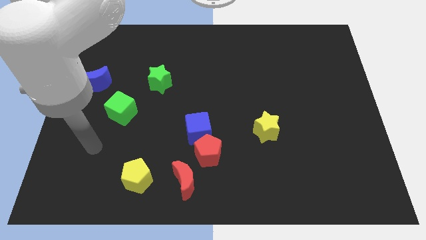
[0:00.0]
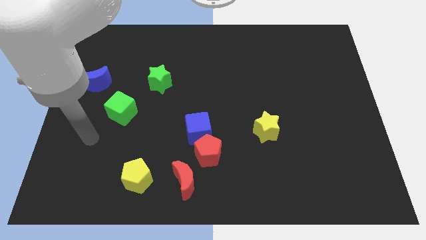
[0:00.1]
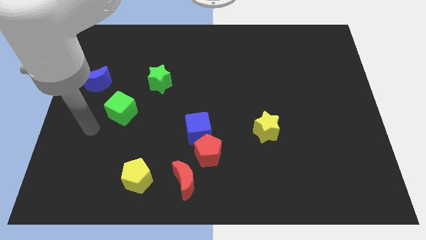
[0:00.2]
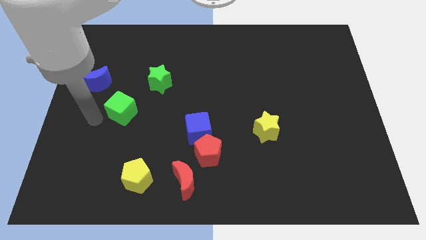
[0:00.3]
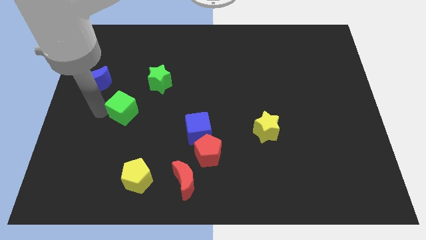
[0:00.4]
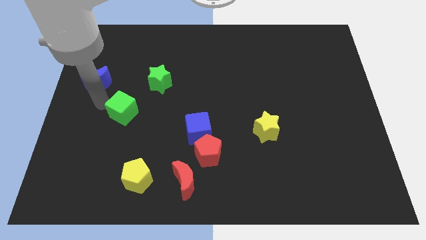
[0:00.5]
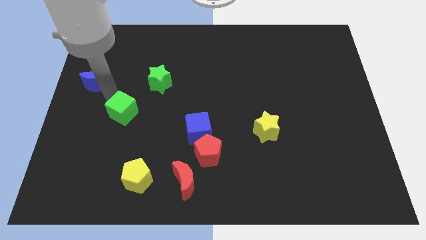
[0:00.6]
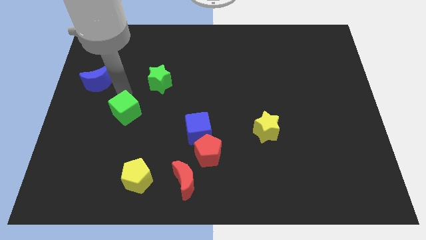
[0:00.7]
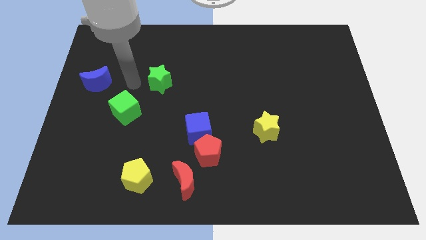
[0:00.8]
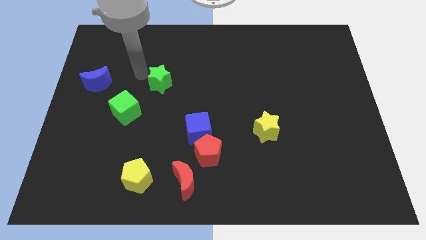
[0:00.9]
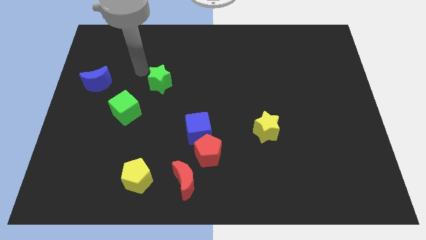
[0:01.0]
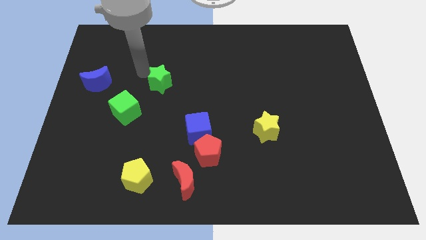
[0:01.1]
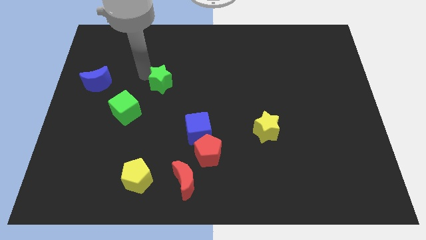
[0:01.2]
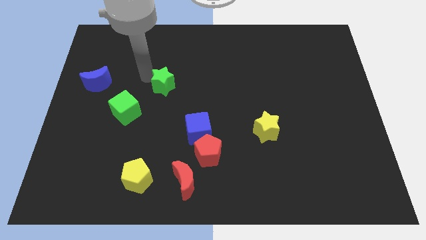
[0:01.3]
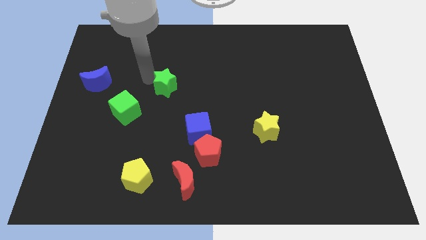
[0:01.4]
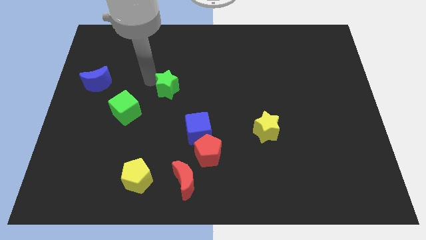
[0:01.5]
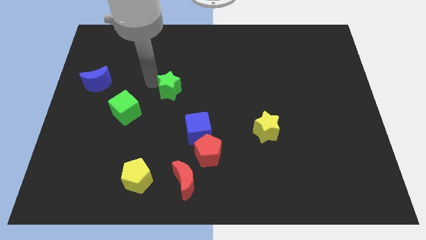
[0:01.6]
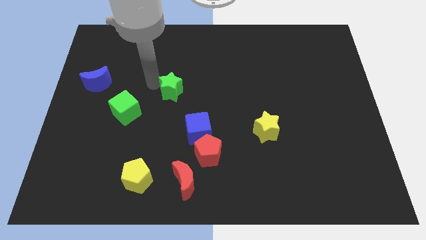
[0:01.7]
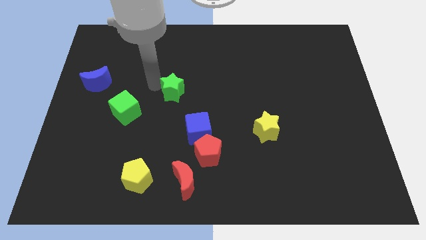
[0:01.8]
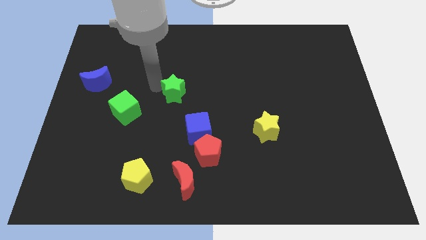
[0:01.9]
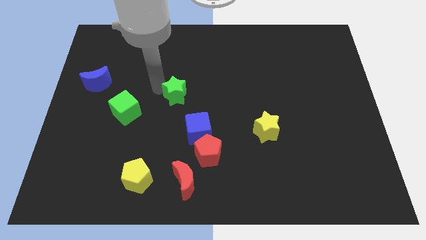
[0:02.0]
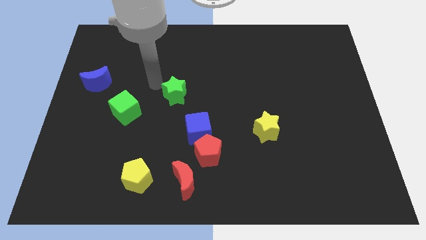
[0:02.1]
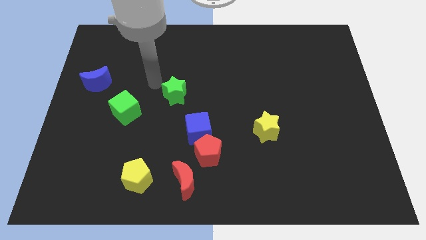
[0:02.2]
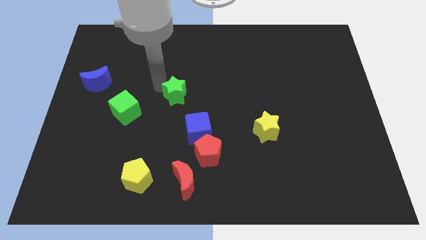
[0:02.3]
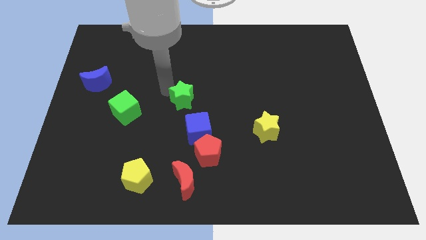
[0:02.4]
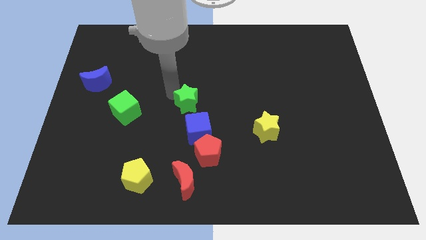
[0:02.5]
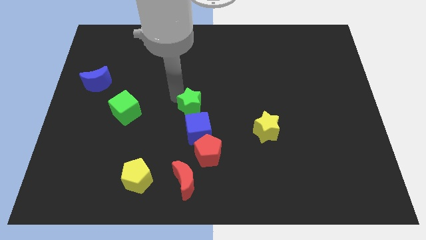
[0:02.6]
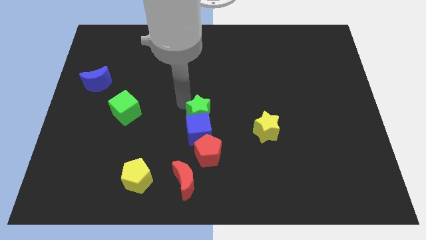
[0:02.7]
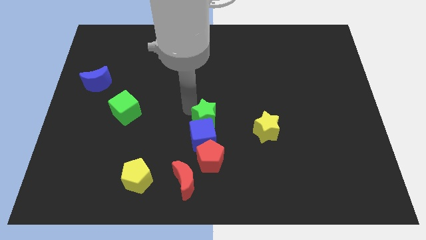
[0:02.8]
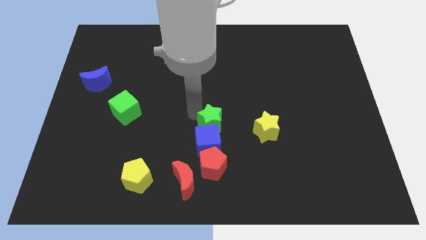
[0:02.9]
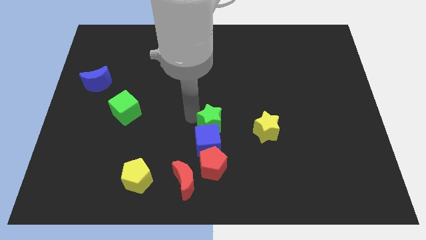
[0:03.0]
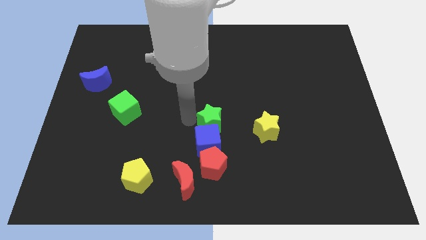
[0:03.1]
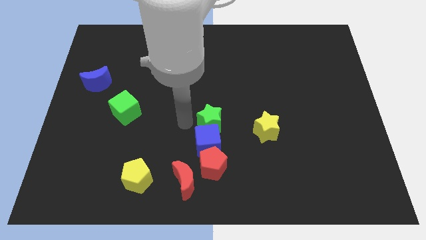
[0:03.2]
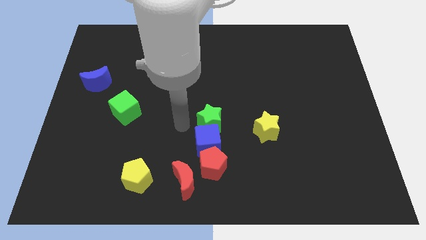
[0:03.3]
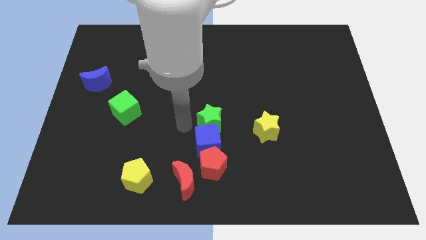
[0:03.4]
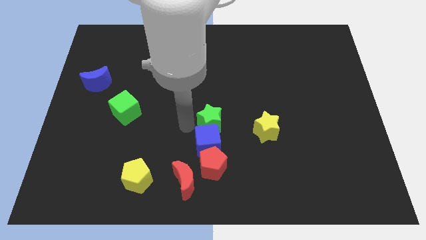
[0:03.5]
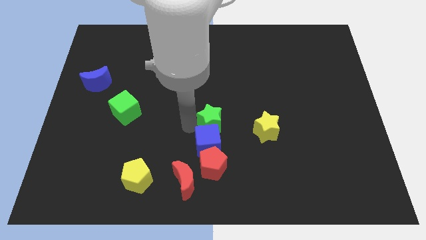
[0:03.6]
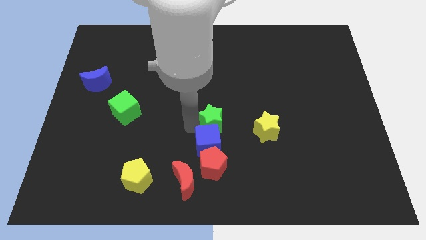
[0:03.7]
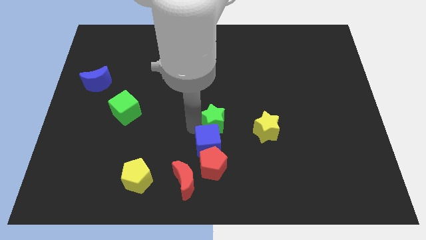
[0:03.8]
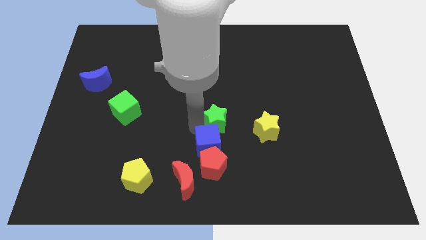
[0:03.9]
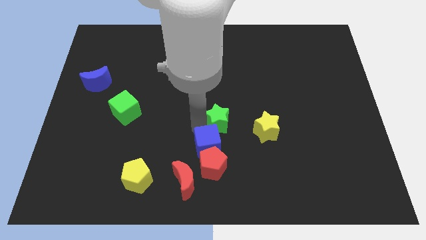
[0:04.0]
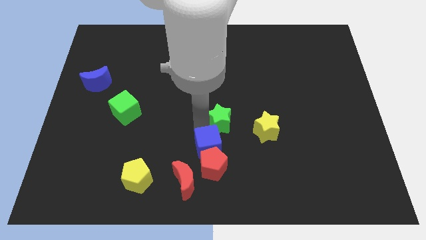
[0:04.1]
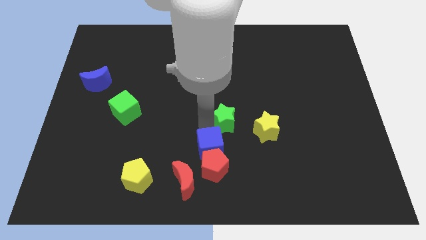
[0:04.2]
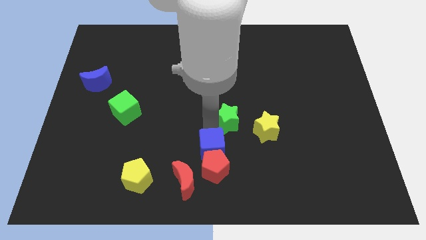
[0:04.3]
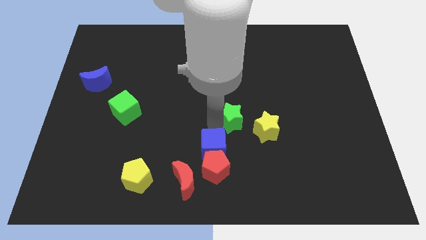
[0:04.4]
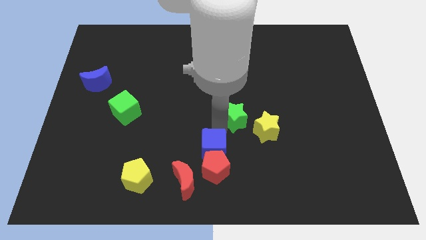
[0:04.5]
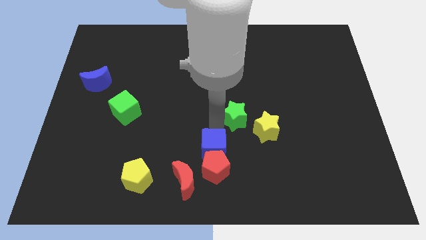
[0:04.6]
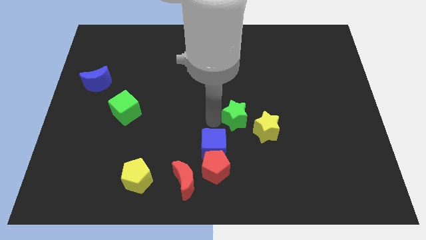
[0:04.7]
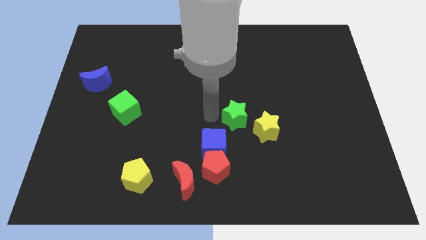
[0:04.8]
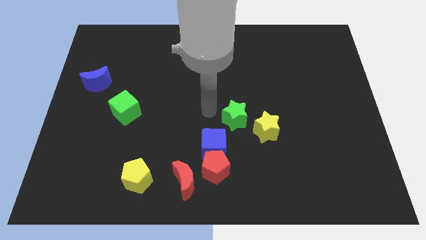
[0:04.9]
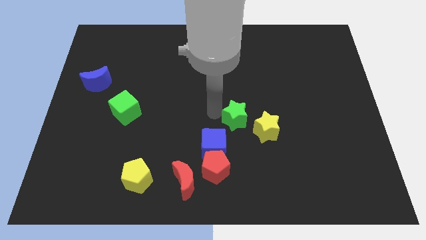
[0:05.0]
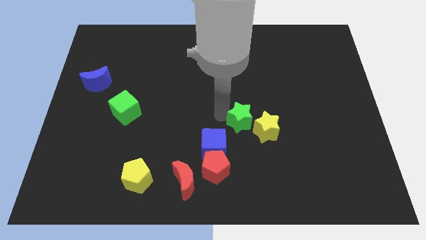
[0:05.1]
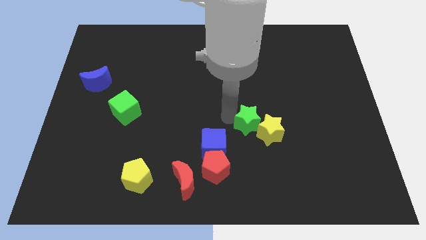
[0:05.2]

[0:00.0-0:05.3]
push the green star next to the yellow star

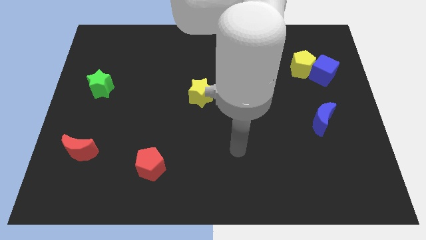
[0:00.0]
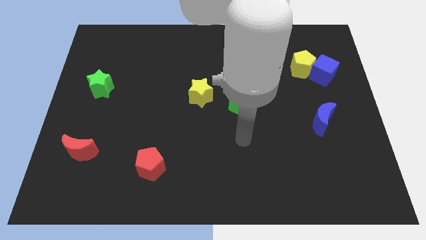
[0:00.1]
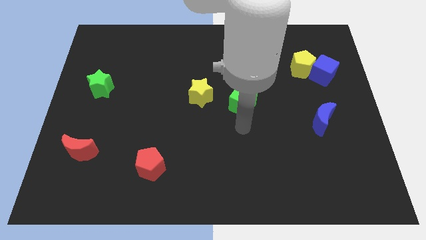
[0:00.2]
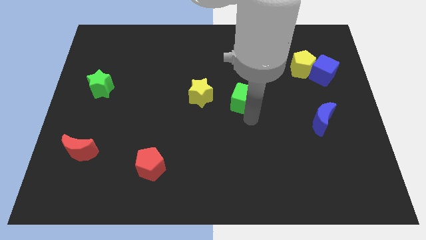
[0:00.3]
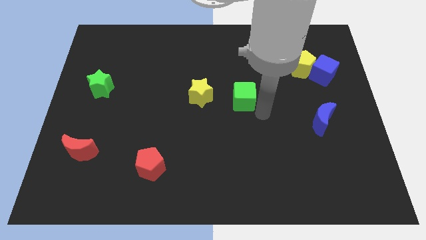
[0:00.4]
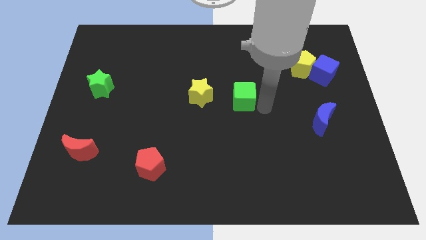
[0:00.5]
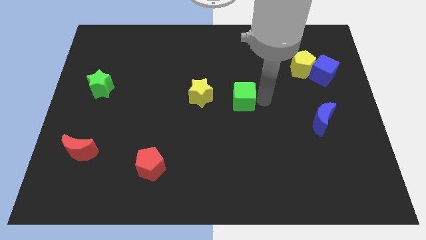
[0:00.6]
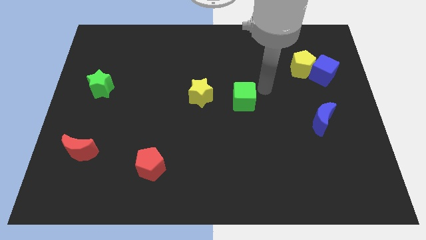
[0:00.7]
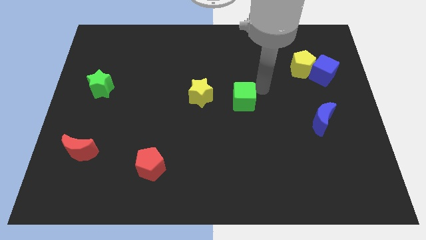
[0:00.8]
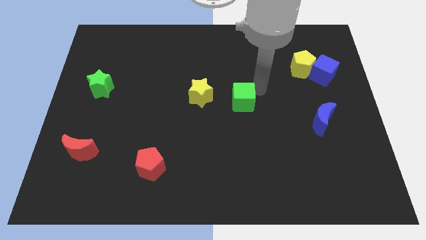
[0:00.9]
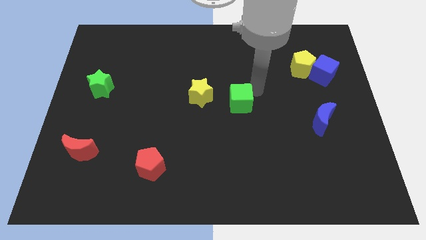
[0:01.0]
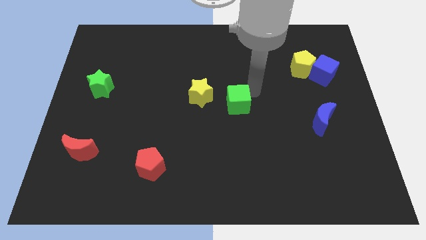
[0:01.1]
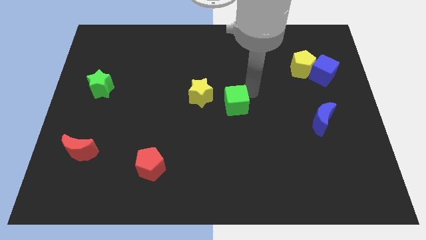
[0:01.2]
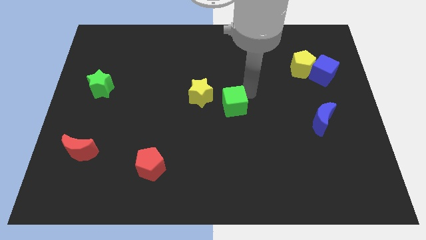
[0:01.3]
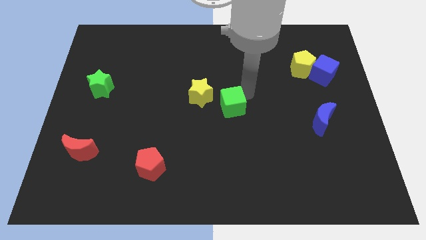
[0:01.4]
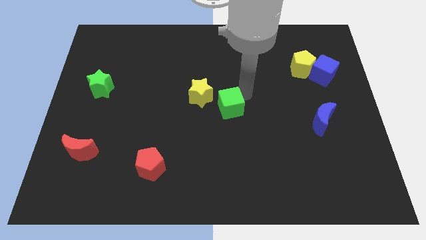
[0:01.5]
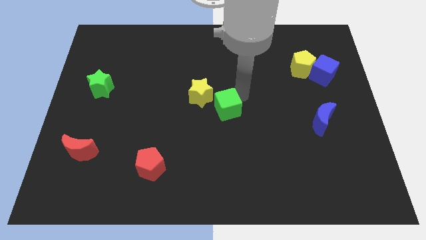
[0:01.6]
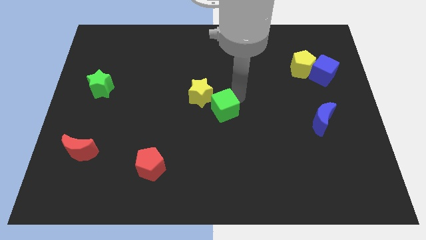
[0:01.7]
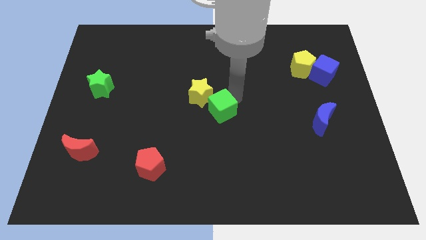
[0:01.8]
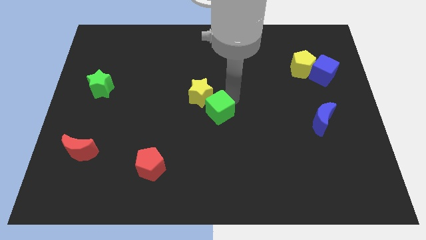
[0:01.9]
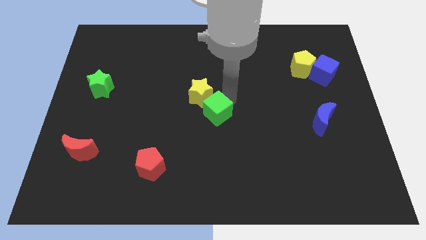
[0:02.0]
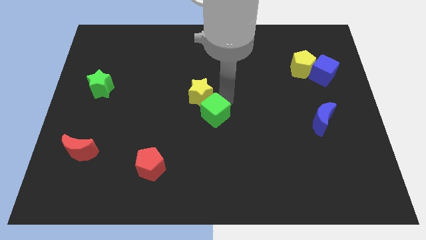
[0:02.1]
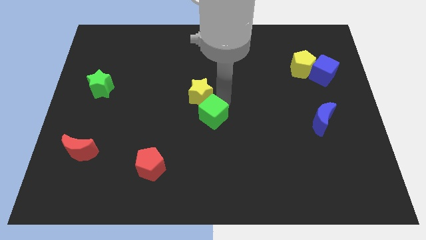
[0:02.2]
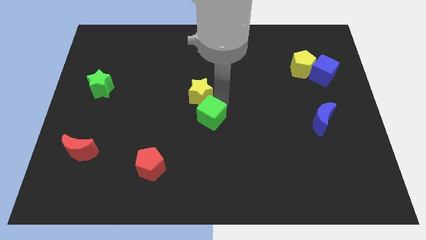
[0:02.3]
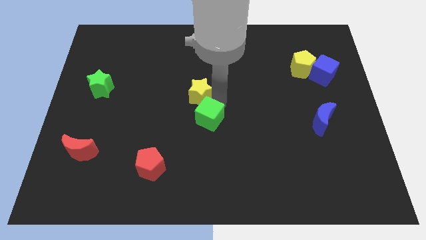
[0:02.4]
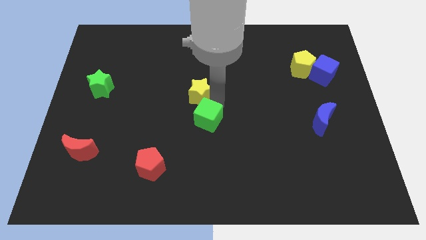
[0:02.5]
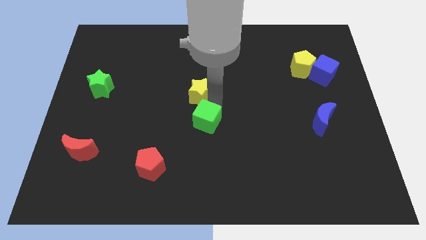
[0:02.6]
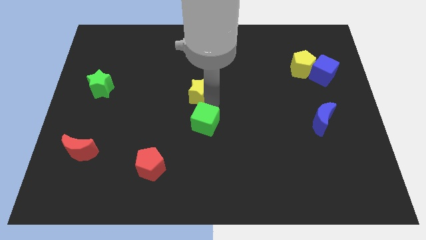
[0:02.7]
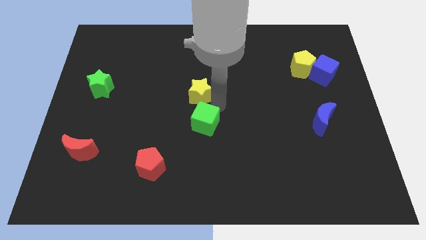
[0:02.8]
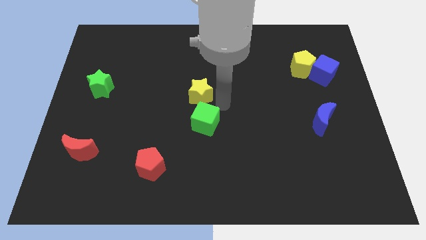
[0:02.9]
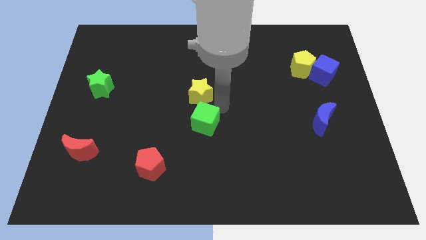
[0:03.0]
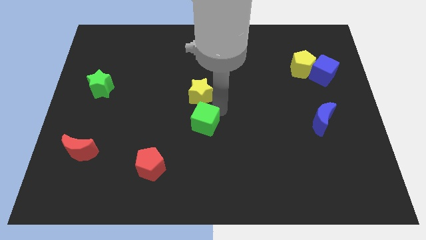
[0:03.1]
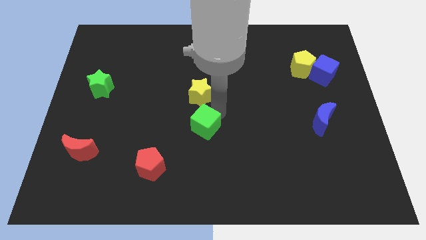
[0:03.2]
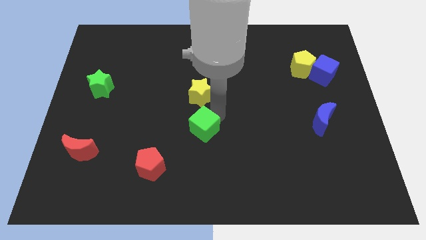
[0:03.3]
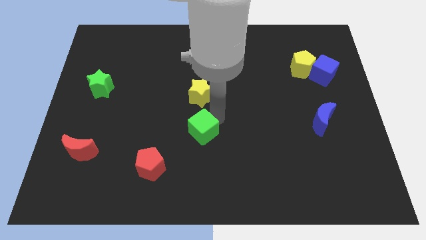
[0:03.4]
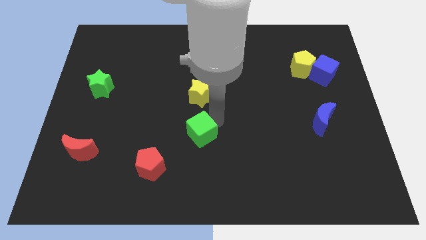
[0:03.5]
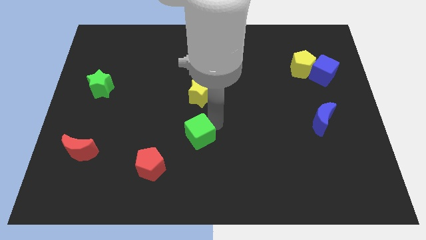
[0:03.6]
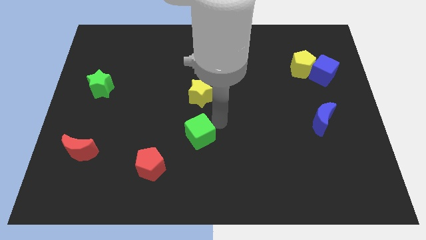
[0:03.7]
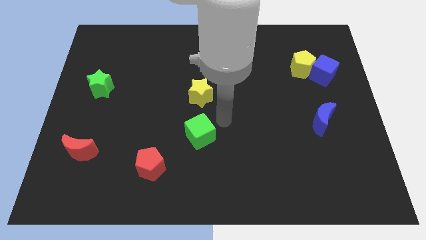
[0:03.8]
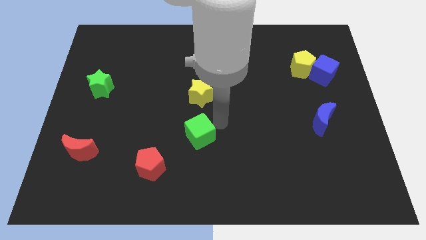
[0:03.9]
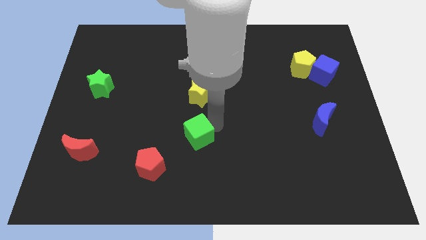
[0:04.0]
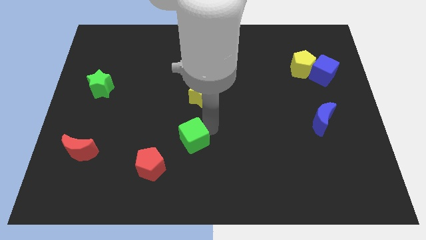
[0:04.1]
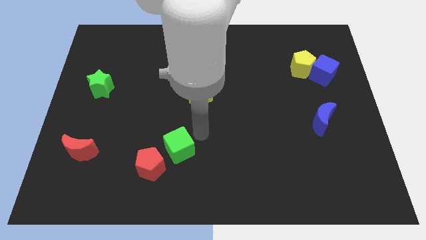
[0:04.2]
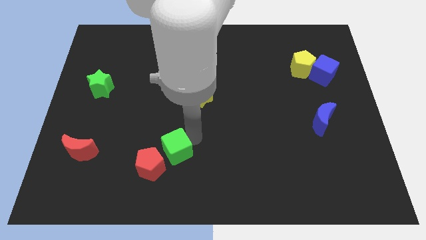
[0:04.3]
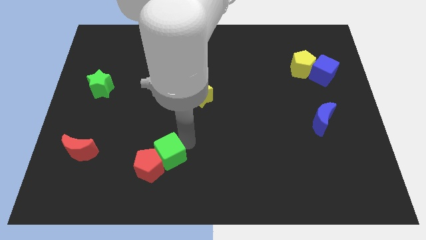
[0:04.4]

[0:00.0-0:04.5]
move the green cube close to the red pentagon
